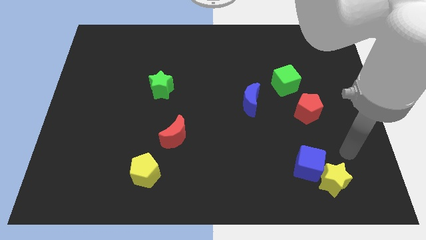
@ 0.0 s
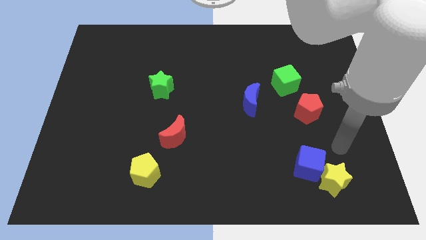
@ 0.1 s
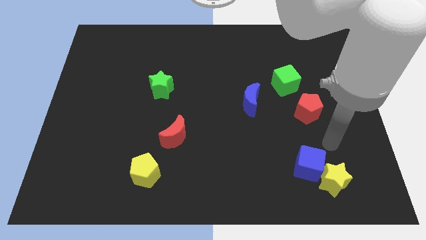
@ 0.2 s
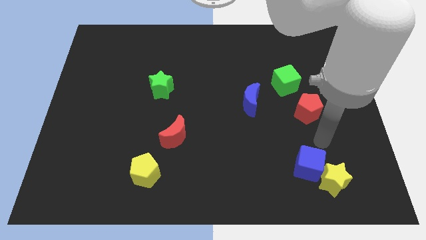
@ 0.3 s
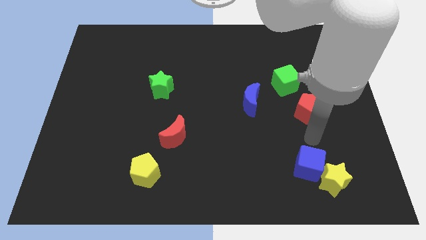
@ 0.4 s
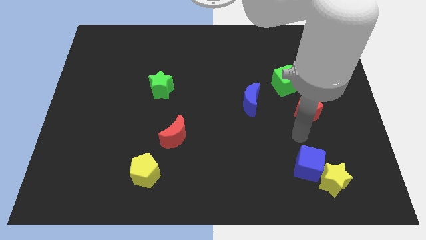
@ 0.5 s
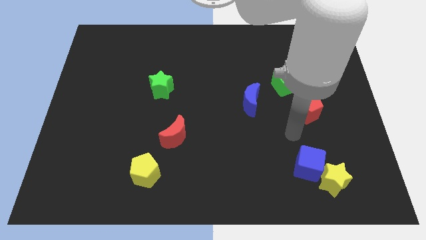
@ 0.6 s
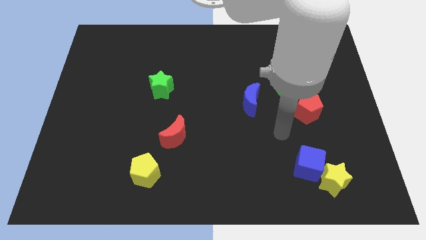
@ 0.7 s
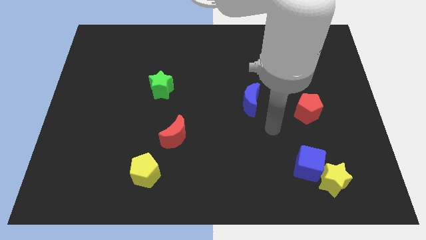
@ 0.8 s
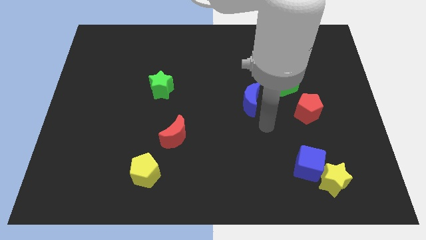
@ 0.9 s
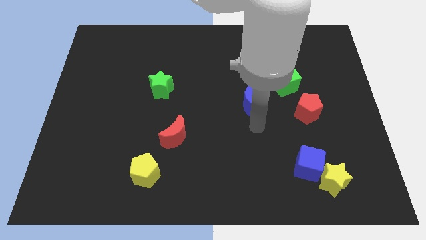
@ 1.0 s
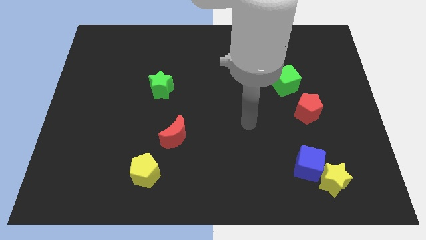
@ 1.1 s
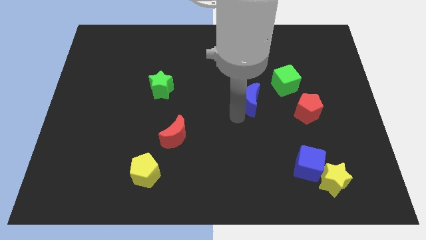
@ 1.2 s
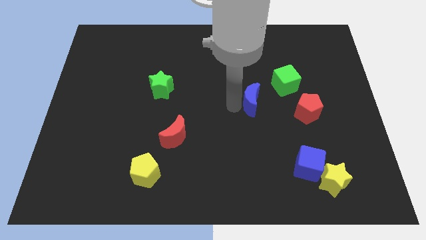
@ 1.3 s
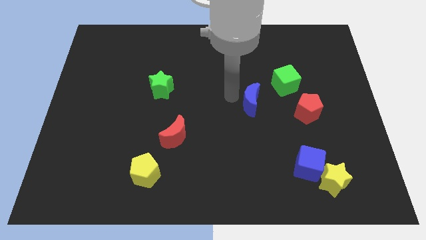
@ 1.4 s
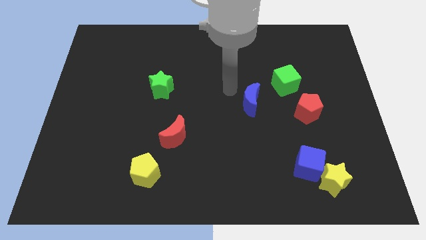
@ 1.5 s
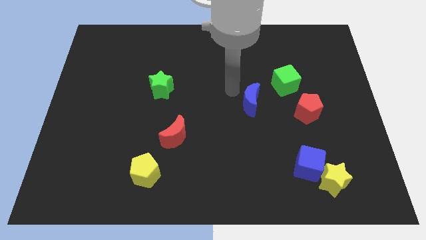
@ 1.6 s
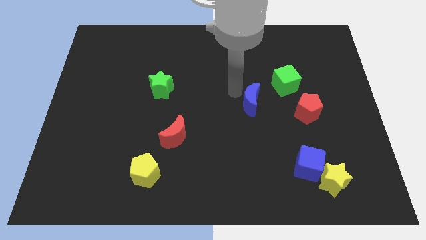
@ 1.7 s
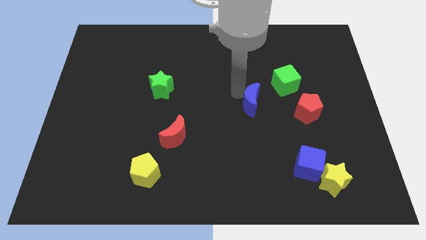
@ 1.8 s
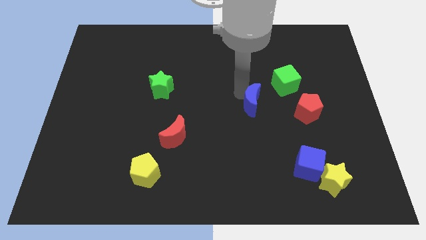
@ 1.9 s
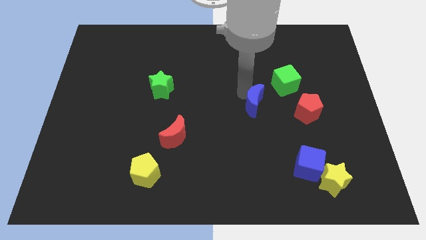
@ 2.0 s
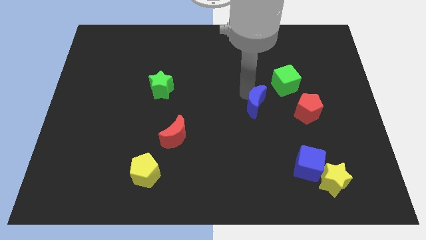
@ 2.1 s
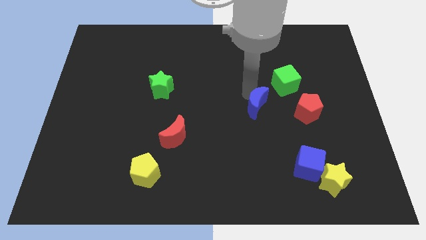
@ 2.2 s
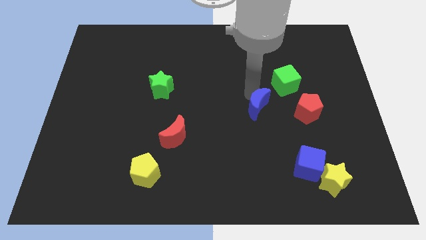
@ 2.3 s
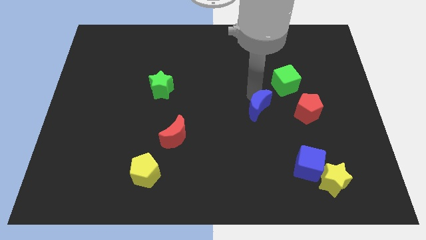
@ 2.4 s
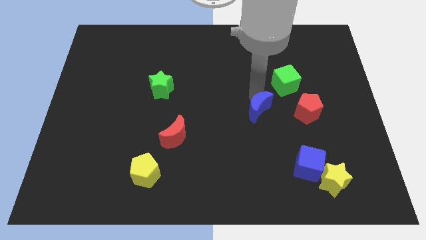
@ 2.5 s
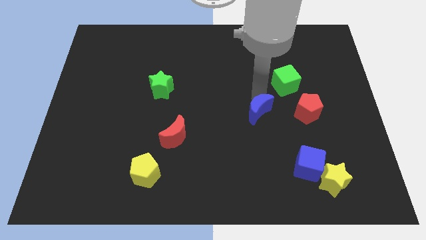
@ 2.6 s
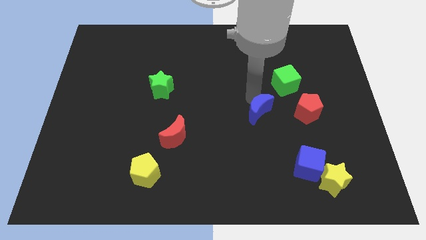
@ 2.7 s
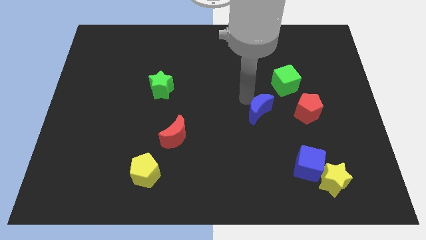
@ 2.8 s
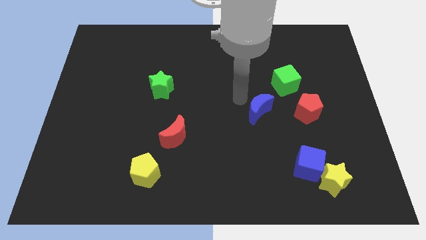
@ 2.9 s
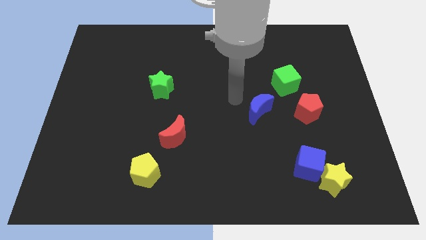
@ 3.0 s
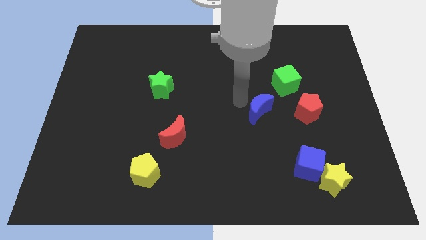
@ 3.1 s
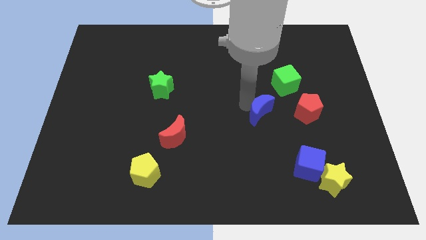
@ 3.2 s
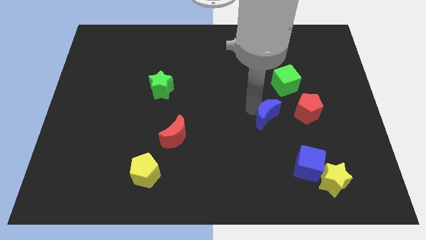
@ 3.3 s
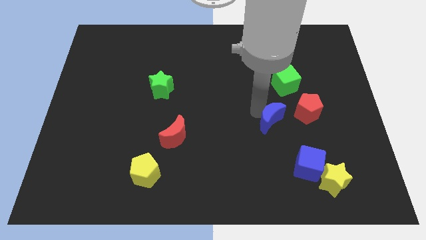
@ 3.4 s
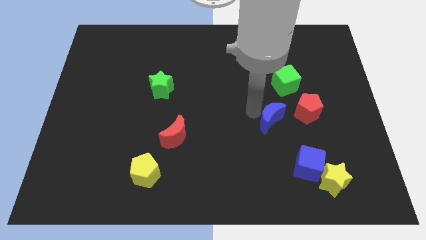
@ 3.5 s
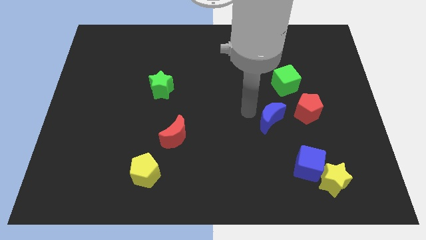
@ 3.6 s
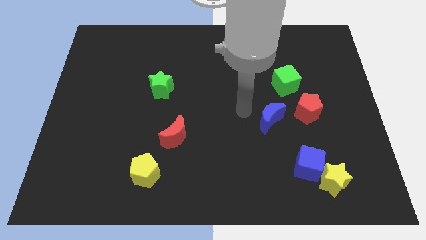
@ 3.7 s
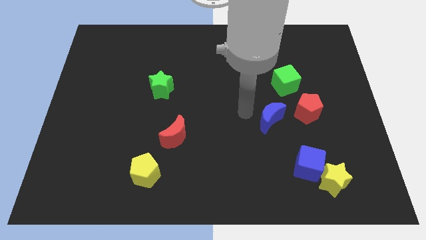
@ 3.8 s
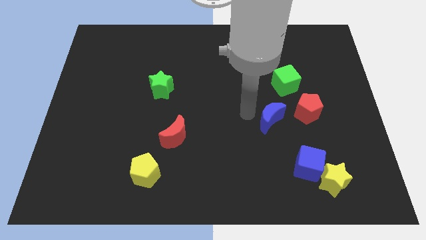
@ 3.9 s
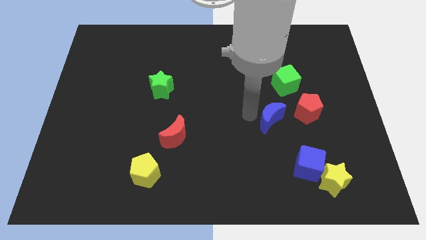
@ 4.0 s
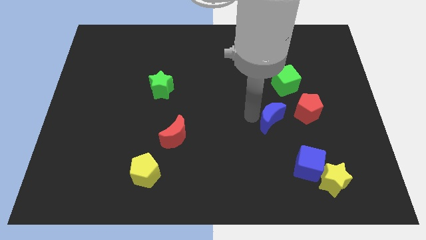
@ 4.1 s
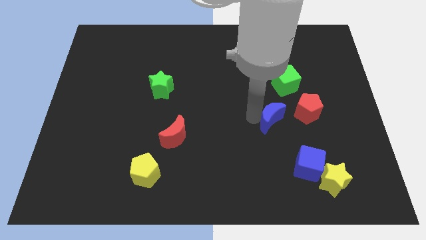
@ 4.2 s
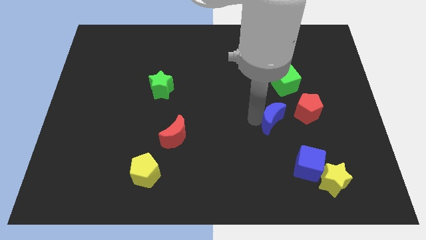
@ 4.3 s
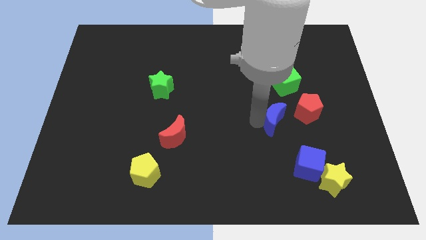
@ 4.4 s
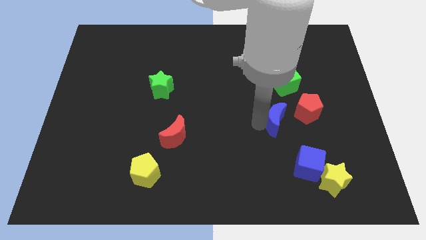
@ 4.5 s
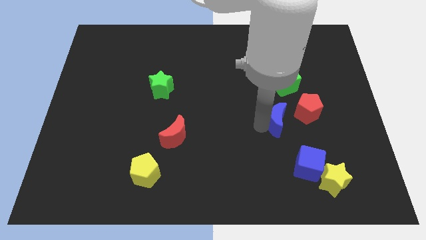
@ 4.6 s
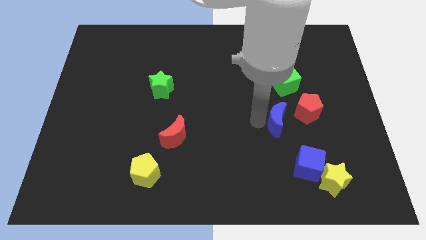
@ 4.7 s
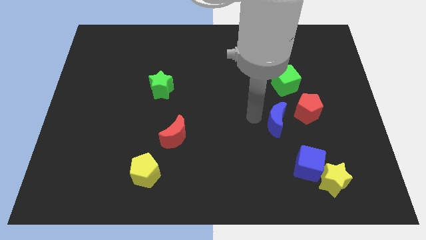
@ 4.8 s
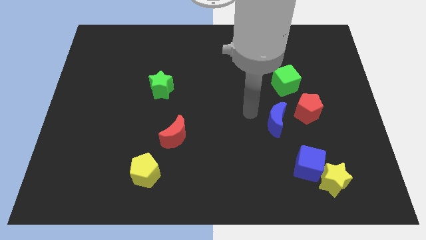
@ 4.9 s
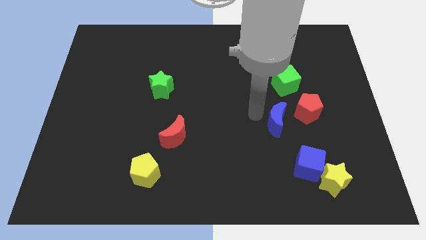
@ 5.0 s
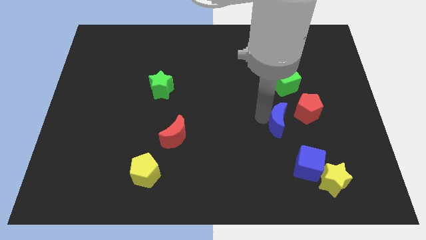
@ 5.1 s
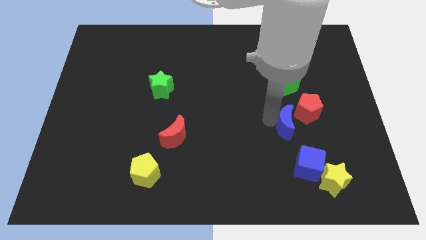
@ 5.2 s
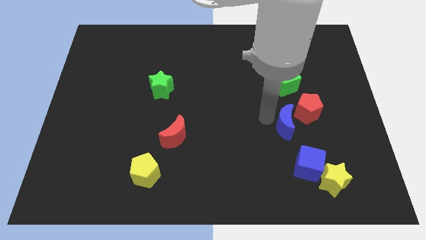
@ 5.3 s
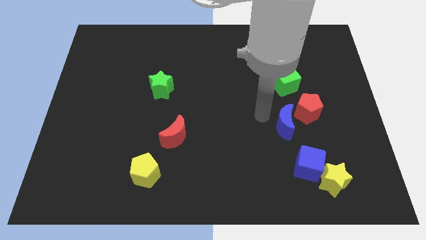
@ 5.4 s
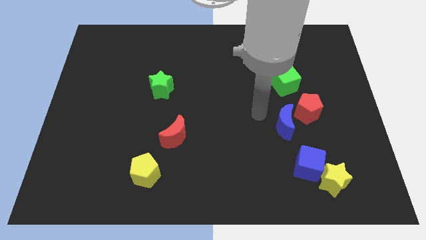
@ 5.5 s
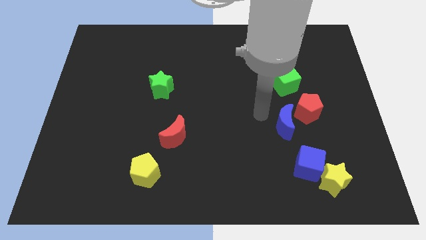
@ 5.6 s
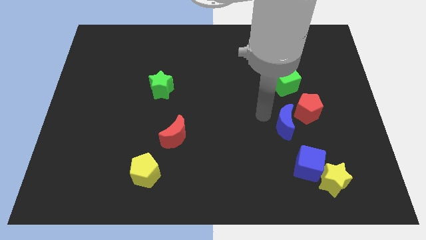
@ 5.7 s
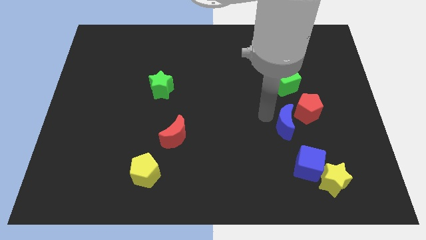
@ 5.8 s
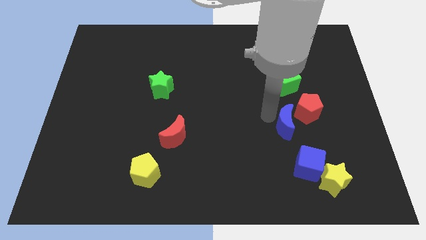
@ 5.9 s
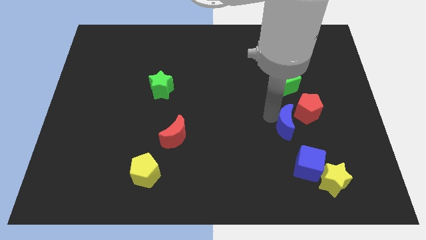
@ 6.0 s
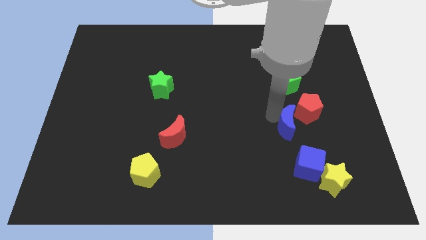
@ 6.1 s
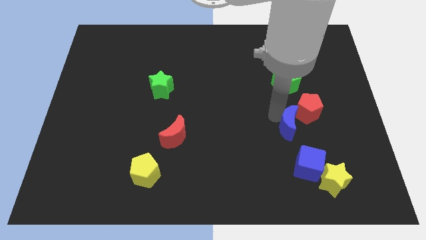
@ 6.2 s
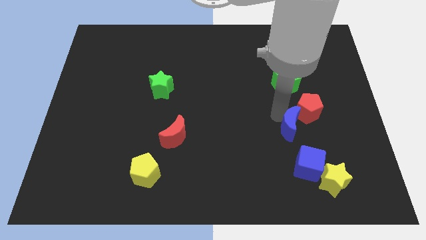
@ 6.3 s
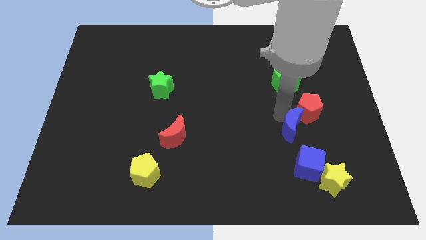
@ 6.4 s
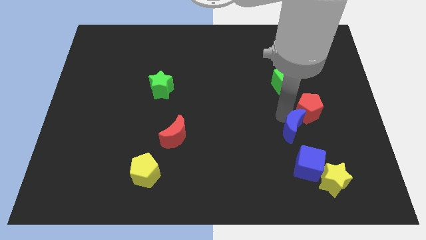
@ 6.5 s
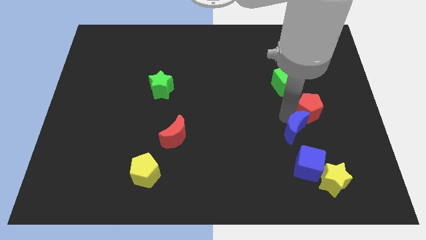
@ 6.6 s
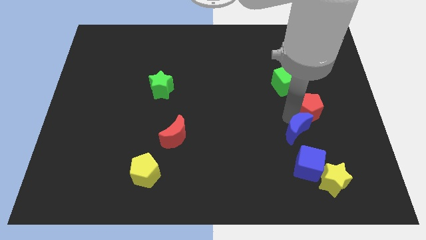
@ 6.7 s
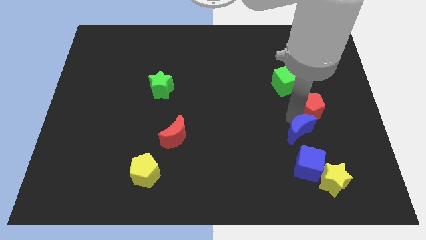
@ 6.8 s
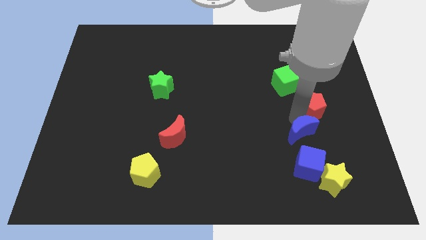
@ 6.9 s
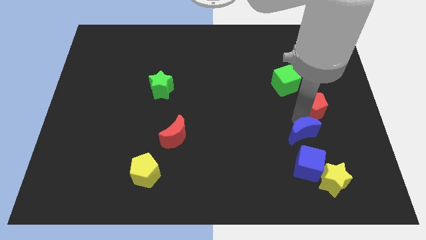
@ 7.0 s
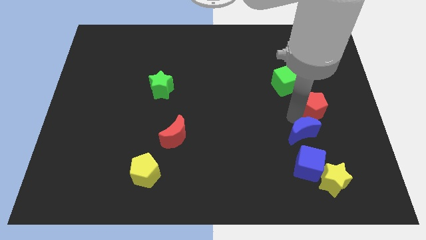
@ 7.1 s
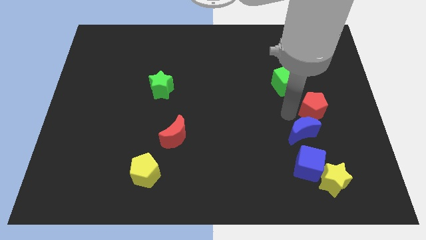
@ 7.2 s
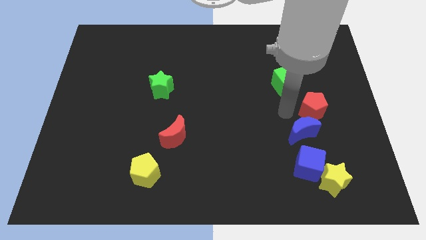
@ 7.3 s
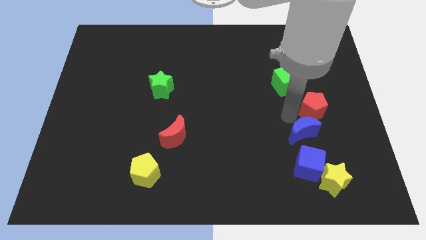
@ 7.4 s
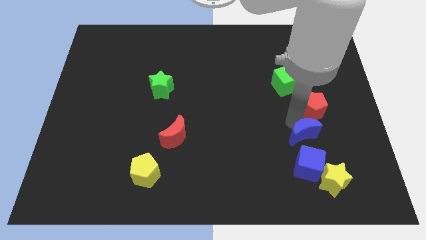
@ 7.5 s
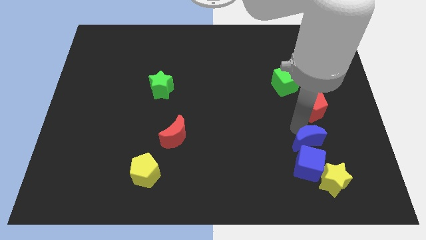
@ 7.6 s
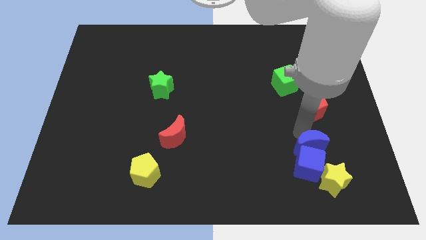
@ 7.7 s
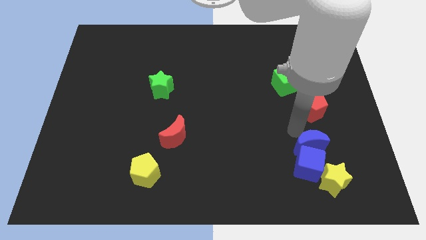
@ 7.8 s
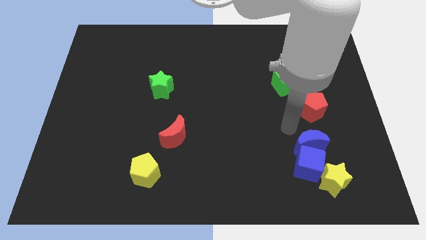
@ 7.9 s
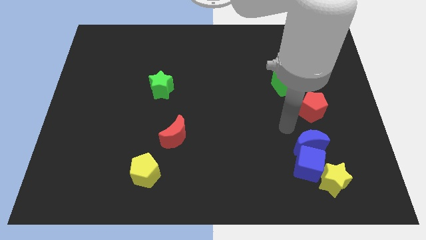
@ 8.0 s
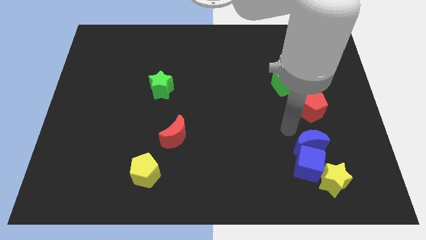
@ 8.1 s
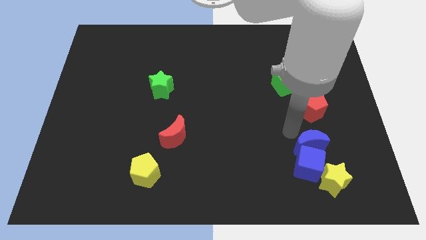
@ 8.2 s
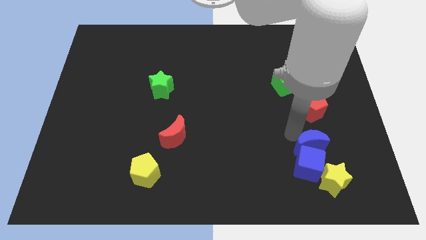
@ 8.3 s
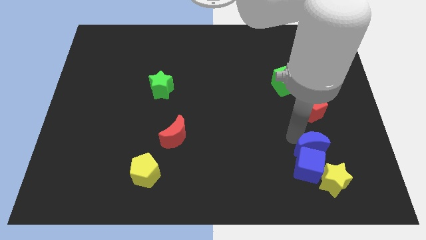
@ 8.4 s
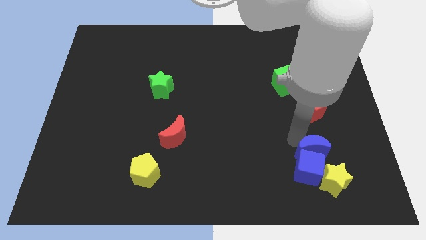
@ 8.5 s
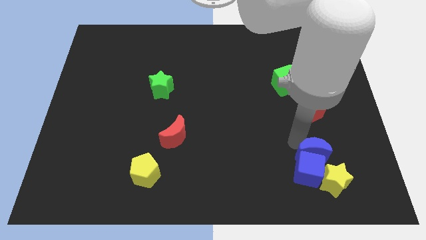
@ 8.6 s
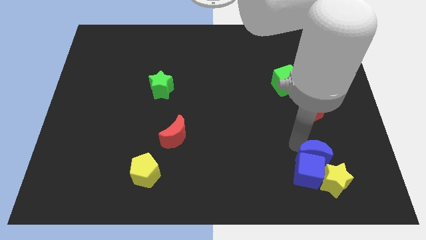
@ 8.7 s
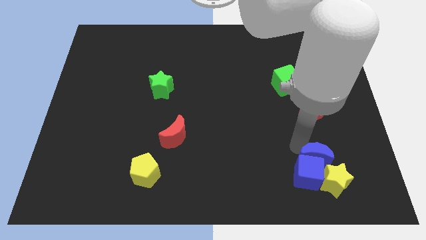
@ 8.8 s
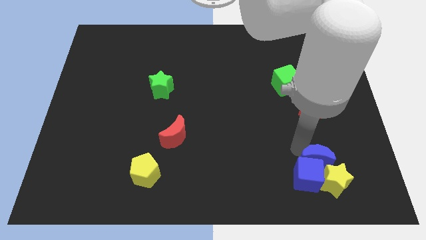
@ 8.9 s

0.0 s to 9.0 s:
slide the blue moon next to the yellow star
